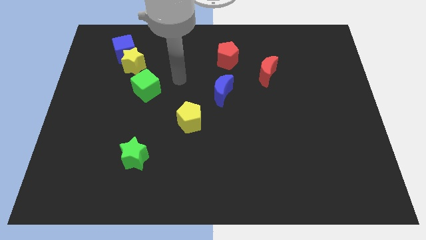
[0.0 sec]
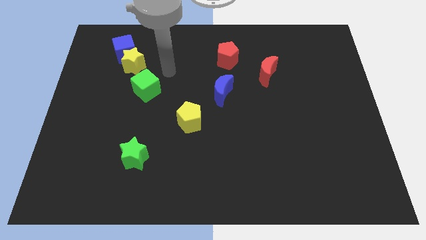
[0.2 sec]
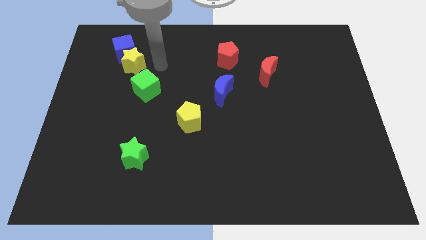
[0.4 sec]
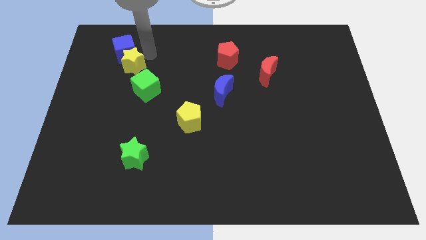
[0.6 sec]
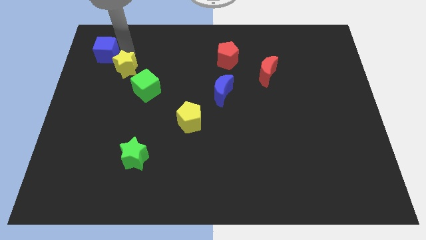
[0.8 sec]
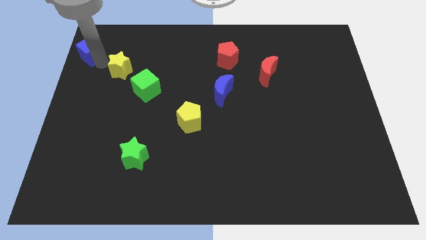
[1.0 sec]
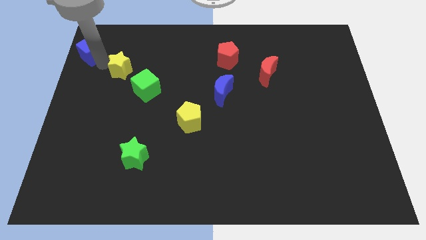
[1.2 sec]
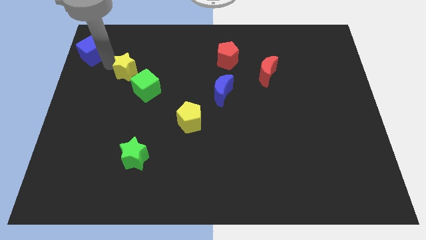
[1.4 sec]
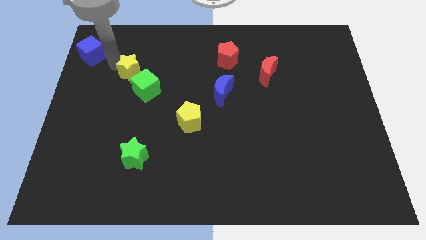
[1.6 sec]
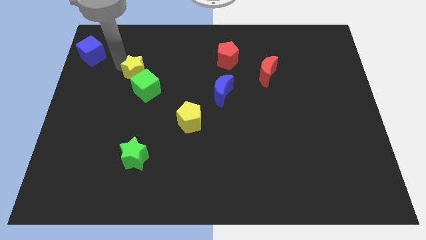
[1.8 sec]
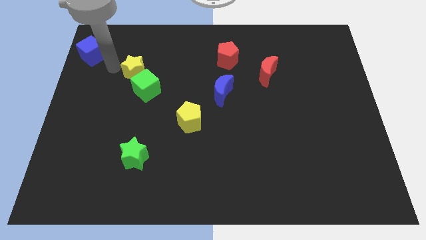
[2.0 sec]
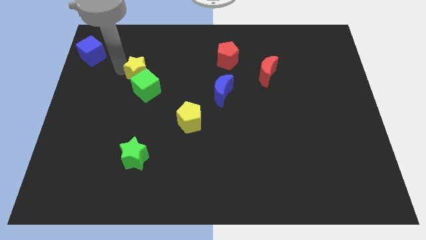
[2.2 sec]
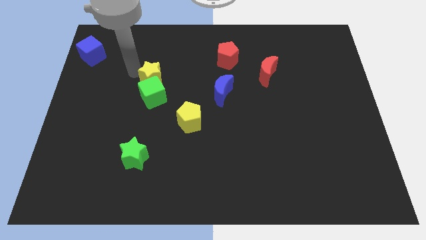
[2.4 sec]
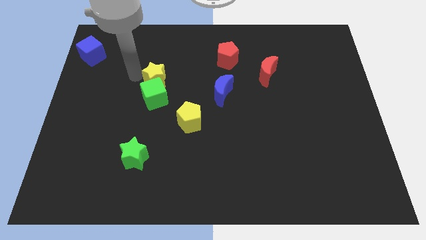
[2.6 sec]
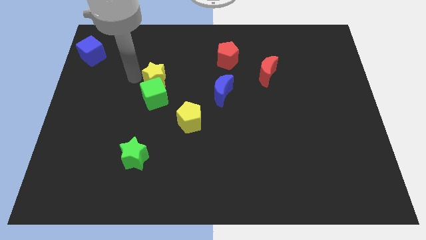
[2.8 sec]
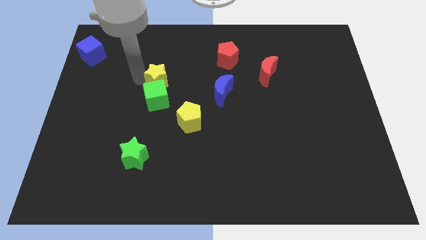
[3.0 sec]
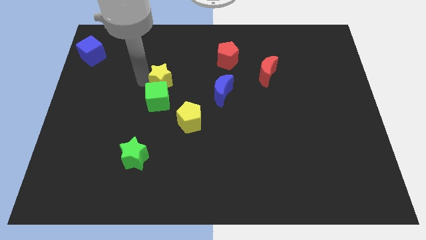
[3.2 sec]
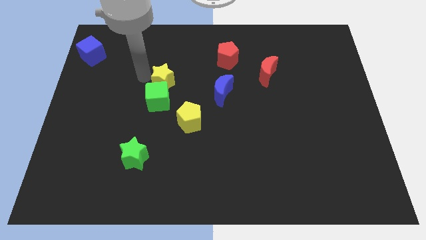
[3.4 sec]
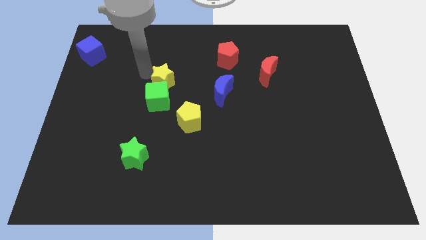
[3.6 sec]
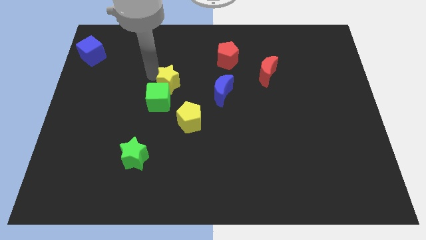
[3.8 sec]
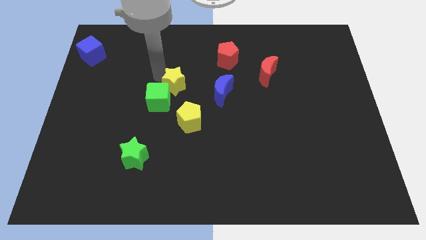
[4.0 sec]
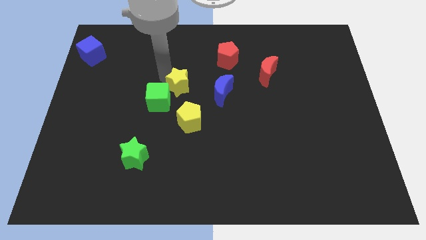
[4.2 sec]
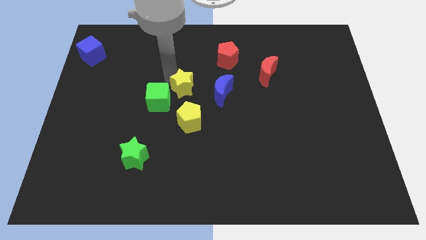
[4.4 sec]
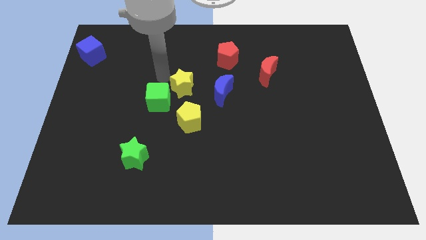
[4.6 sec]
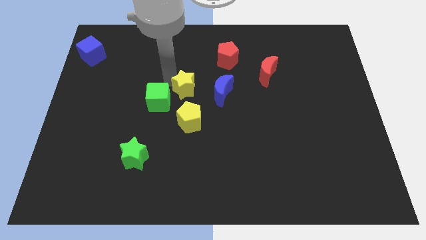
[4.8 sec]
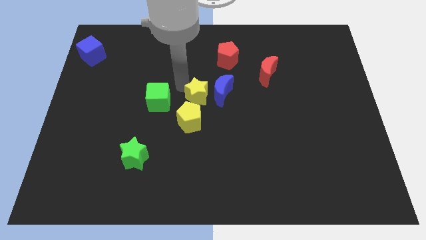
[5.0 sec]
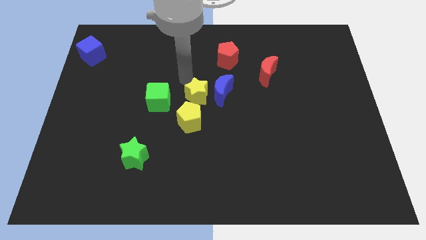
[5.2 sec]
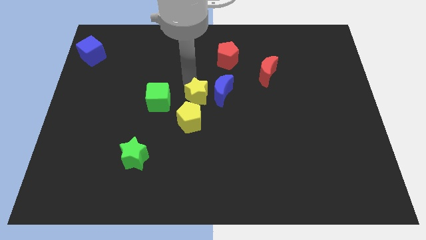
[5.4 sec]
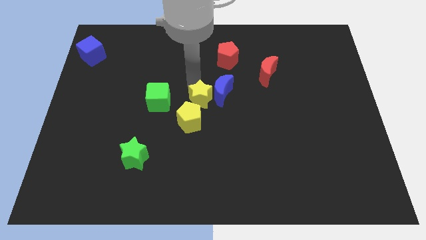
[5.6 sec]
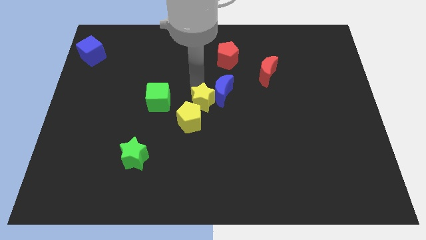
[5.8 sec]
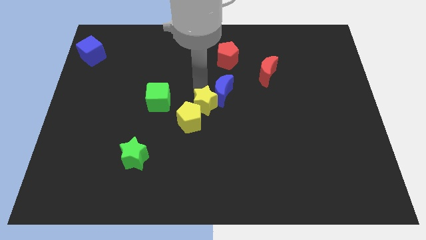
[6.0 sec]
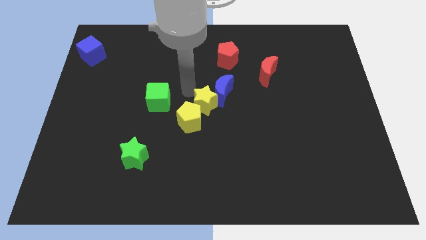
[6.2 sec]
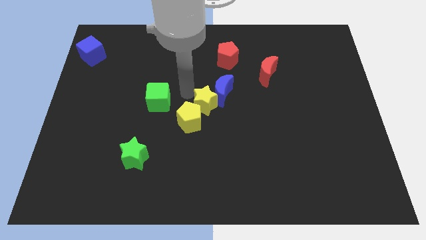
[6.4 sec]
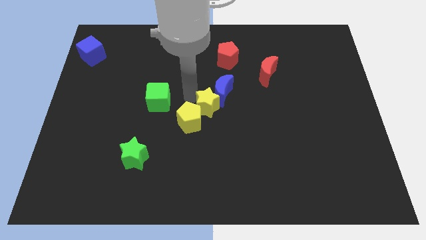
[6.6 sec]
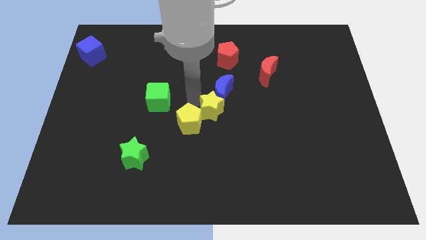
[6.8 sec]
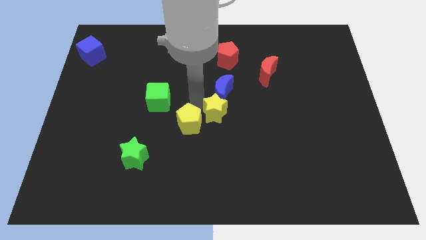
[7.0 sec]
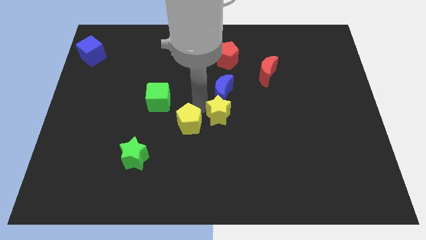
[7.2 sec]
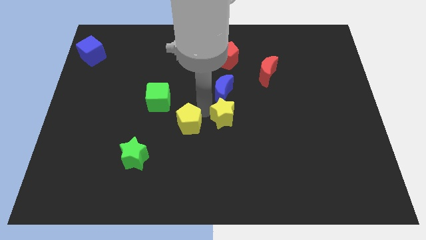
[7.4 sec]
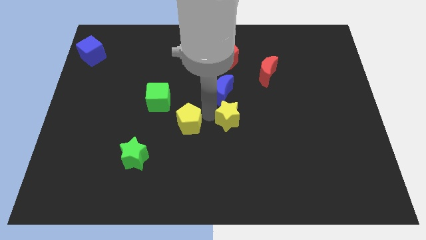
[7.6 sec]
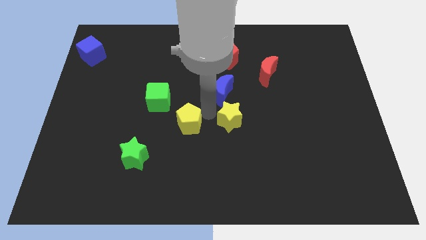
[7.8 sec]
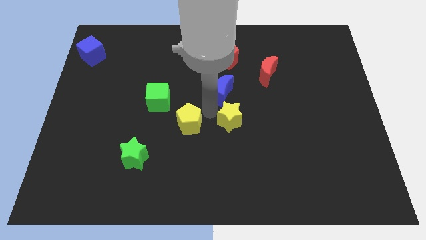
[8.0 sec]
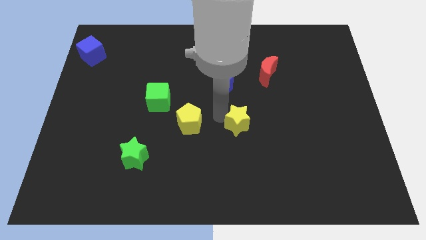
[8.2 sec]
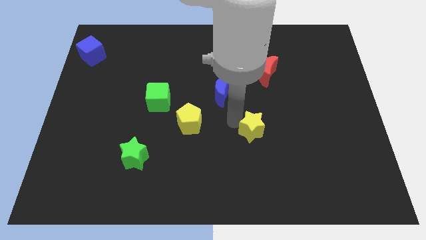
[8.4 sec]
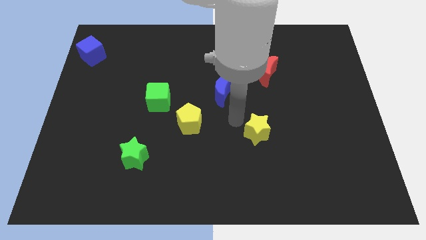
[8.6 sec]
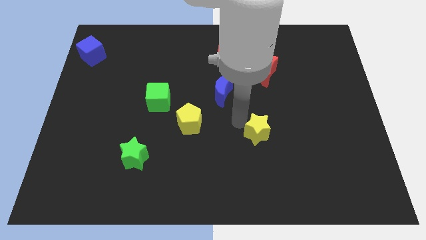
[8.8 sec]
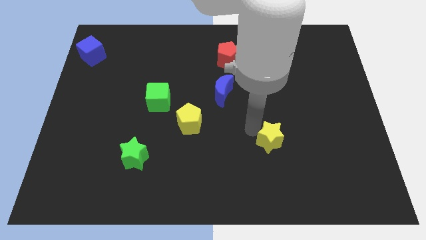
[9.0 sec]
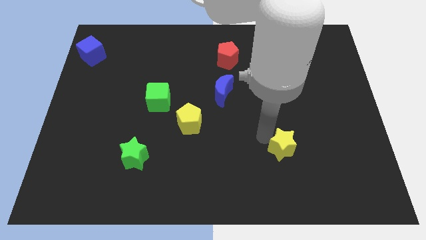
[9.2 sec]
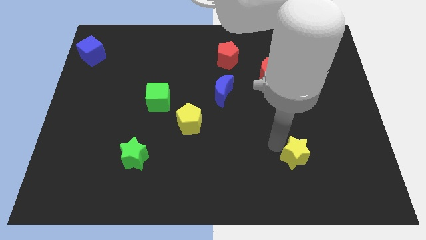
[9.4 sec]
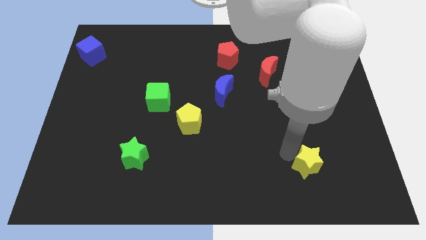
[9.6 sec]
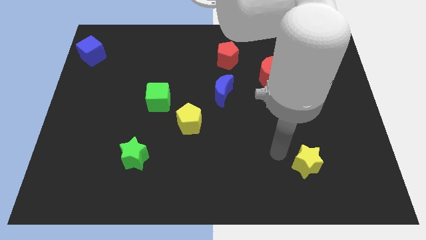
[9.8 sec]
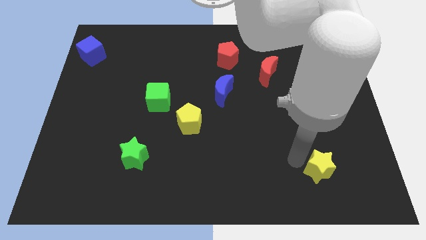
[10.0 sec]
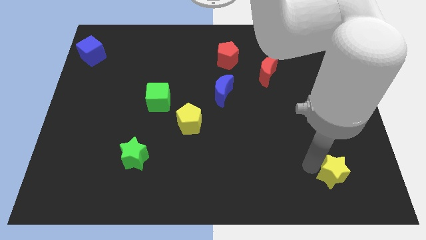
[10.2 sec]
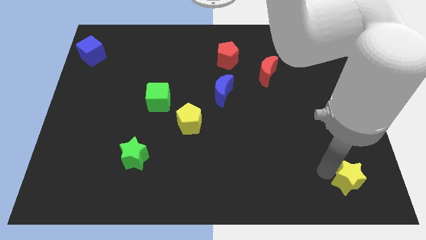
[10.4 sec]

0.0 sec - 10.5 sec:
move the yellow star to the bottom right corner

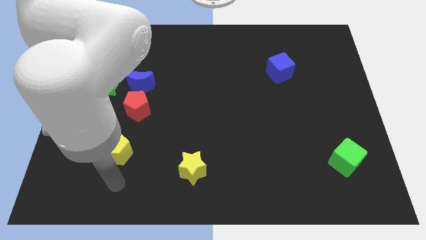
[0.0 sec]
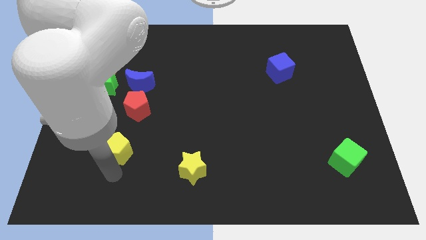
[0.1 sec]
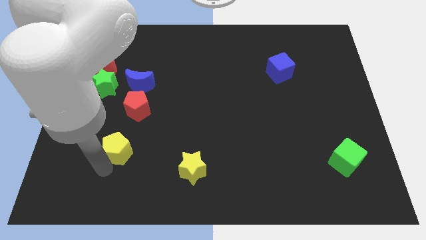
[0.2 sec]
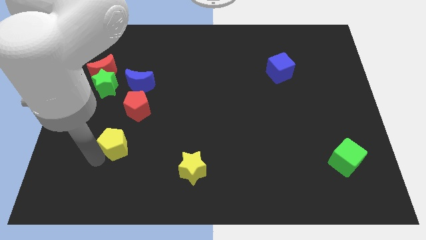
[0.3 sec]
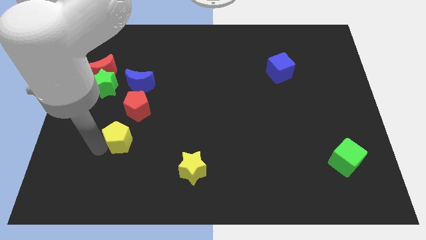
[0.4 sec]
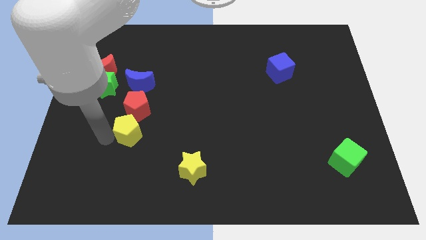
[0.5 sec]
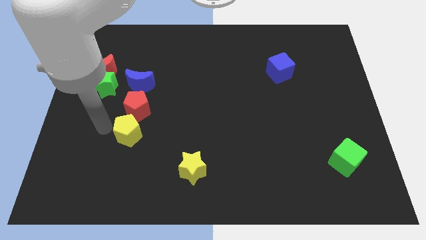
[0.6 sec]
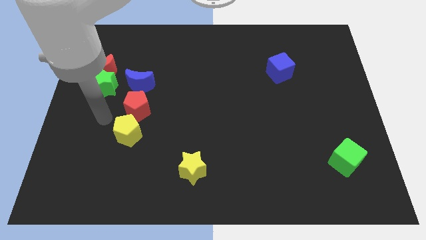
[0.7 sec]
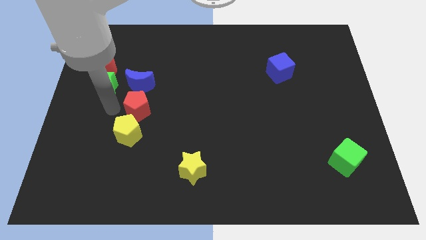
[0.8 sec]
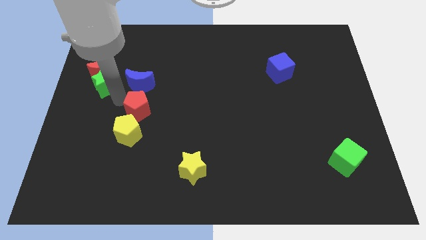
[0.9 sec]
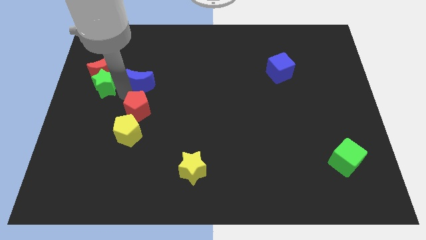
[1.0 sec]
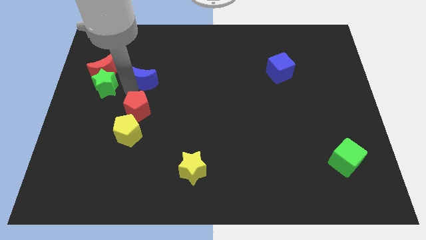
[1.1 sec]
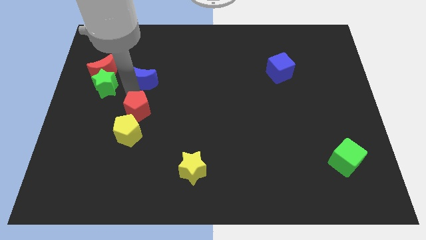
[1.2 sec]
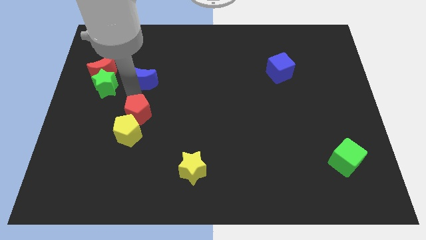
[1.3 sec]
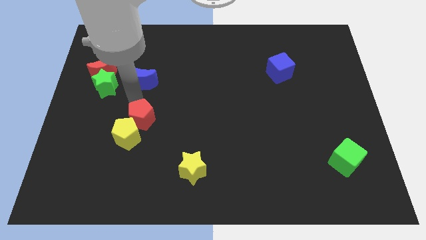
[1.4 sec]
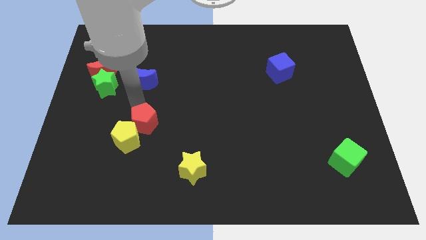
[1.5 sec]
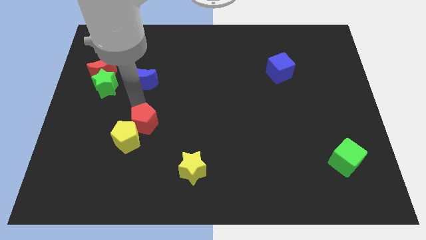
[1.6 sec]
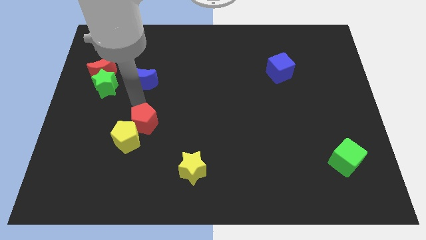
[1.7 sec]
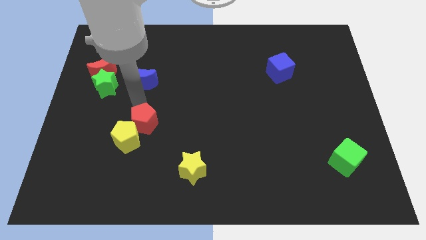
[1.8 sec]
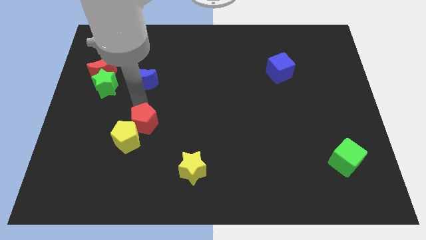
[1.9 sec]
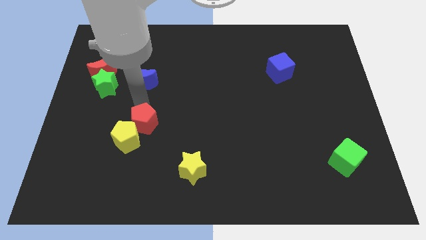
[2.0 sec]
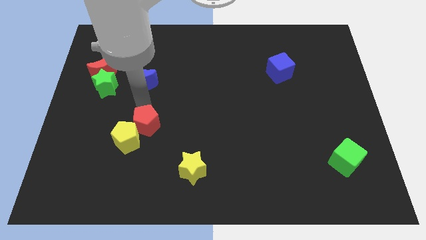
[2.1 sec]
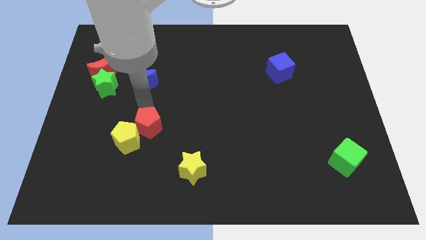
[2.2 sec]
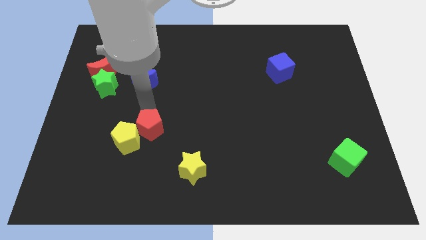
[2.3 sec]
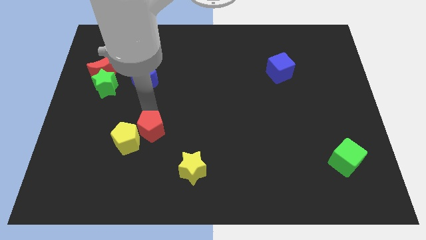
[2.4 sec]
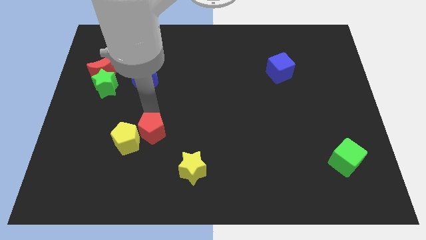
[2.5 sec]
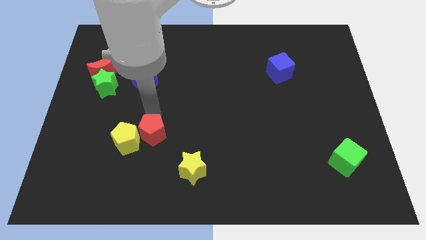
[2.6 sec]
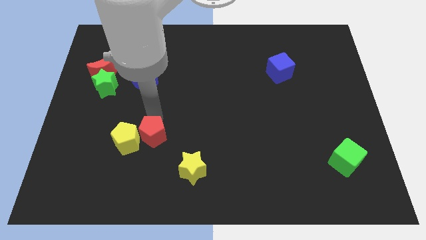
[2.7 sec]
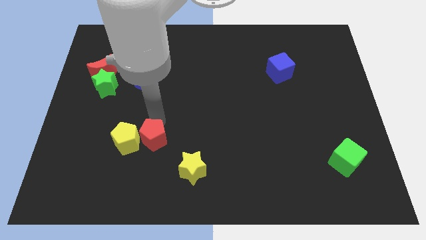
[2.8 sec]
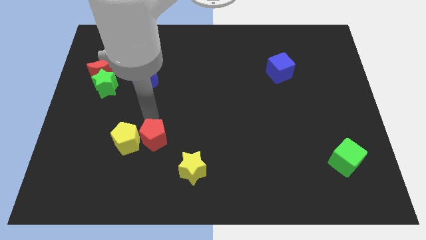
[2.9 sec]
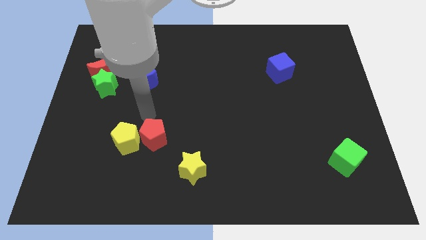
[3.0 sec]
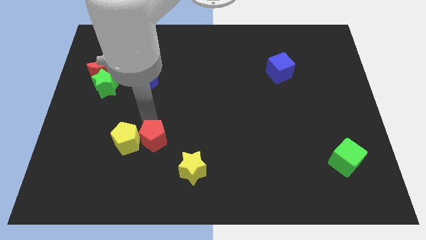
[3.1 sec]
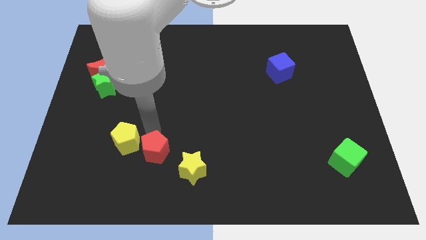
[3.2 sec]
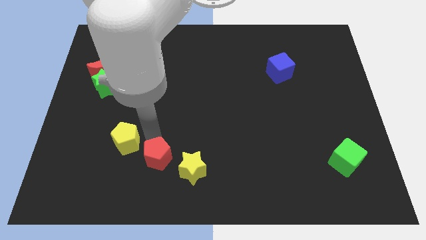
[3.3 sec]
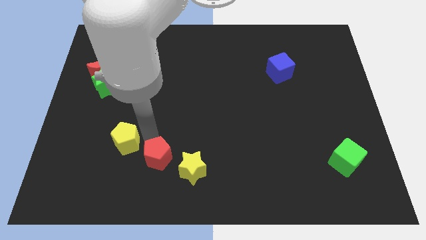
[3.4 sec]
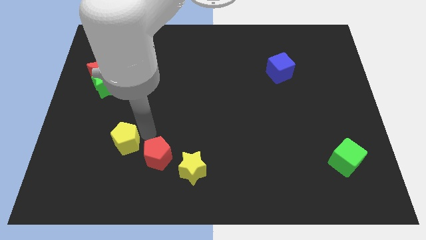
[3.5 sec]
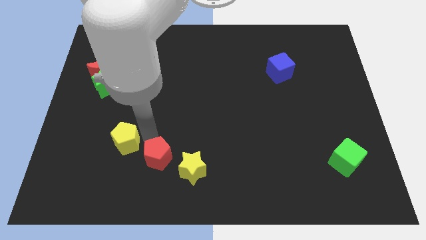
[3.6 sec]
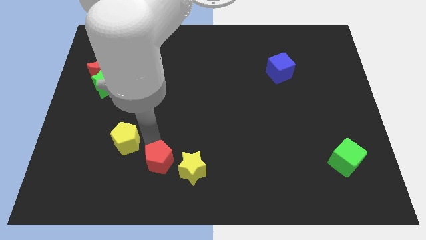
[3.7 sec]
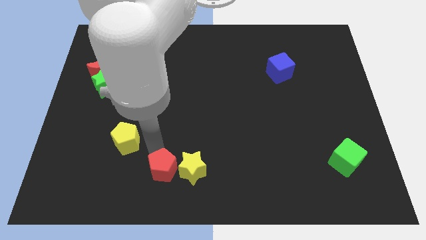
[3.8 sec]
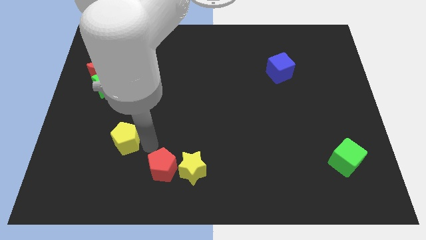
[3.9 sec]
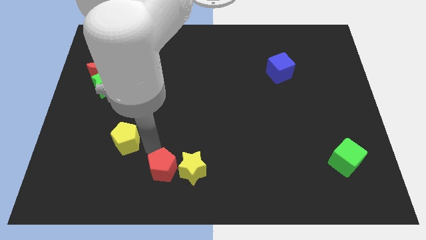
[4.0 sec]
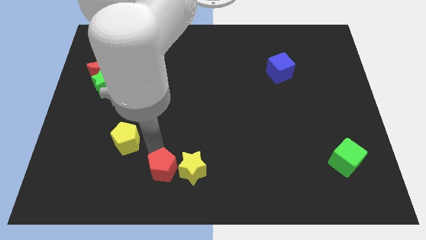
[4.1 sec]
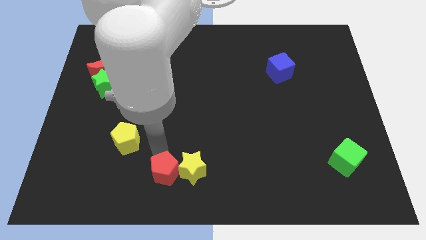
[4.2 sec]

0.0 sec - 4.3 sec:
slide the red pentagon to the bottom
